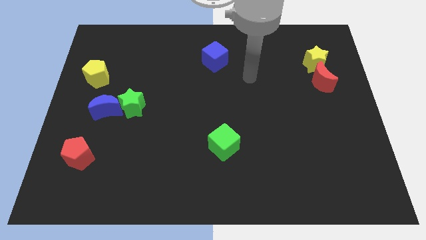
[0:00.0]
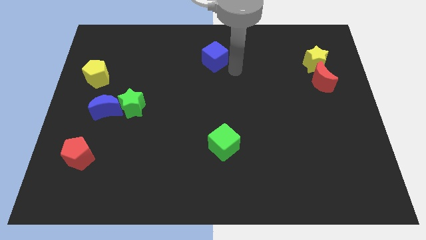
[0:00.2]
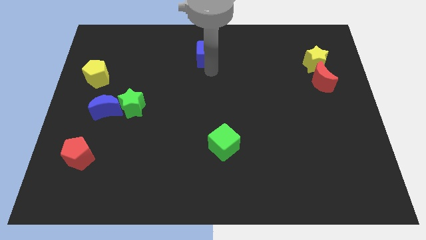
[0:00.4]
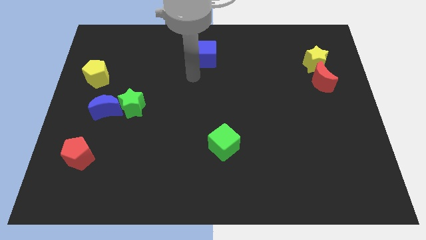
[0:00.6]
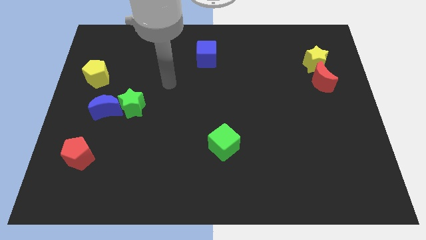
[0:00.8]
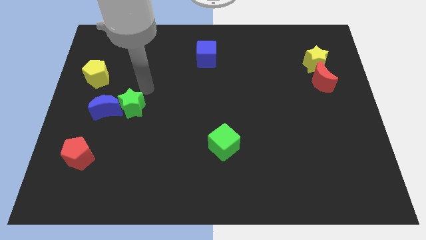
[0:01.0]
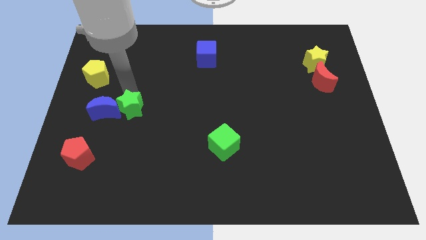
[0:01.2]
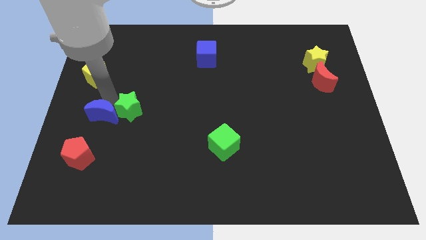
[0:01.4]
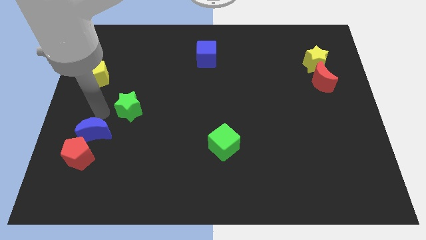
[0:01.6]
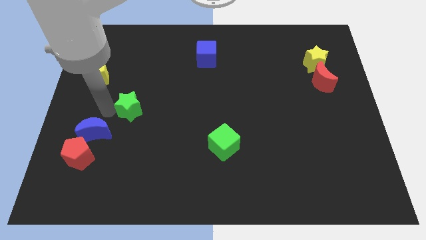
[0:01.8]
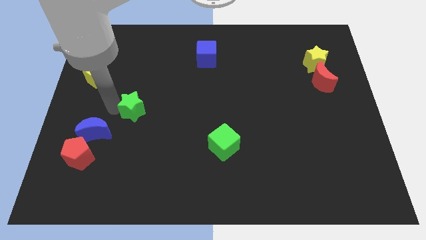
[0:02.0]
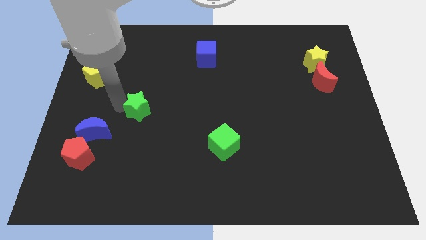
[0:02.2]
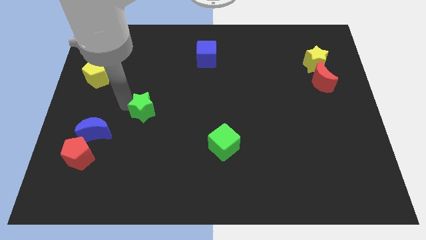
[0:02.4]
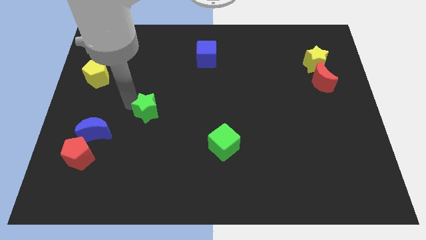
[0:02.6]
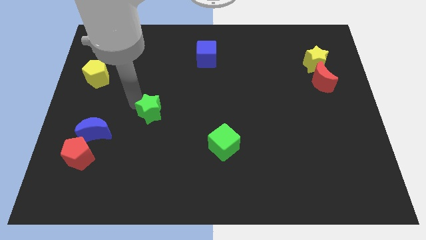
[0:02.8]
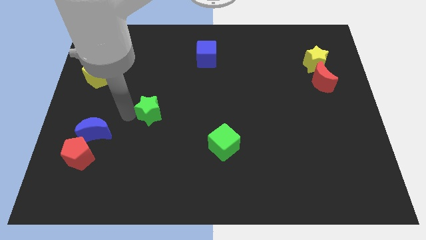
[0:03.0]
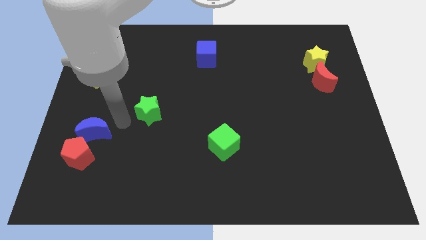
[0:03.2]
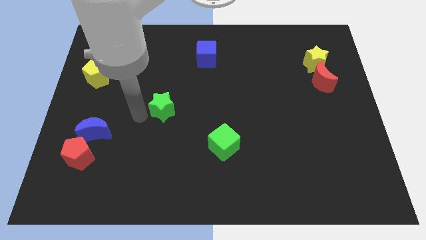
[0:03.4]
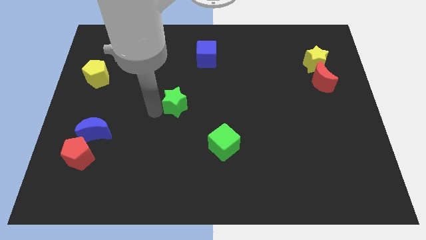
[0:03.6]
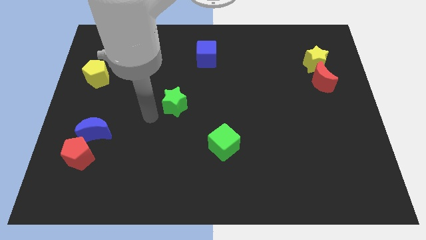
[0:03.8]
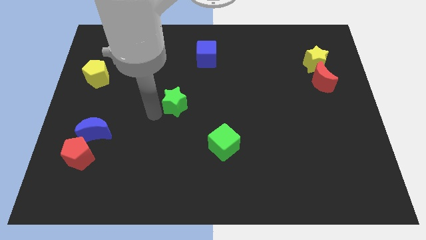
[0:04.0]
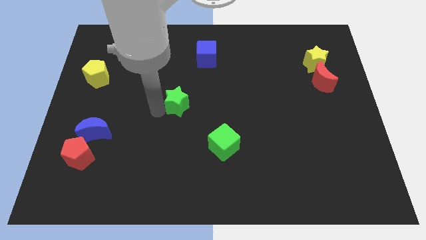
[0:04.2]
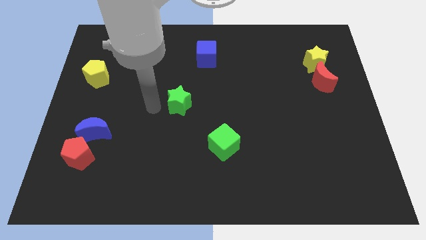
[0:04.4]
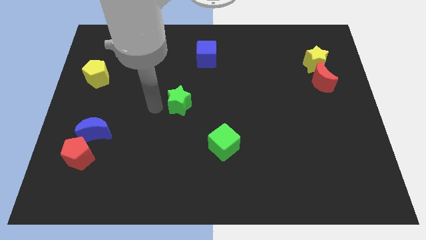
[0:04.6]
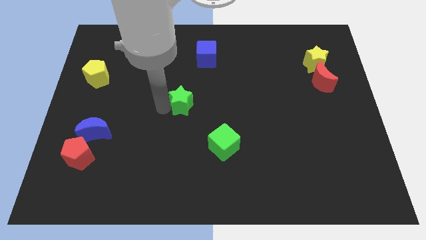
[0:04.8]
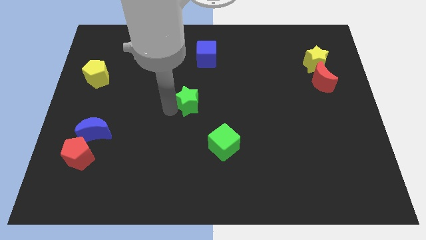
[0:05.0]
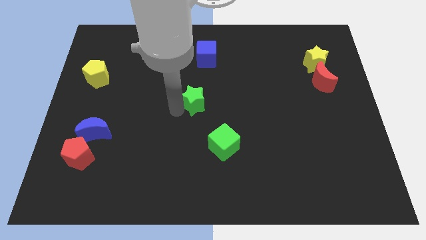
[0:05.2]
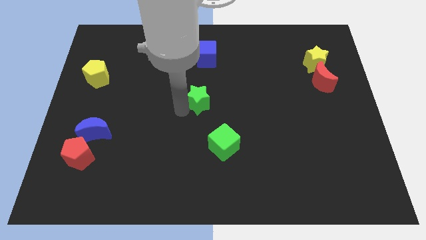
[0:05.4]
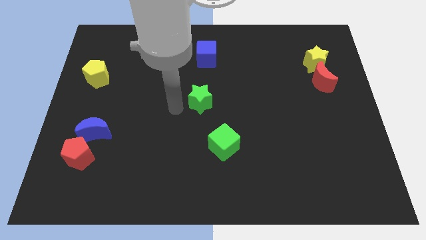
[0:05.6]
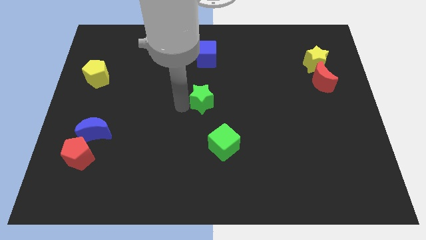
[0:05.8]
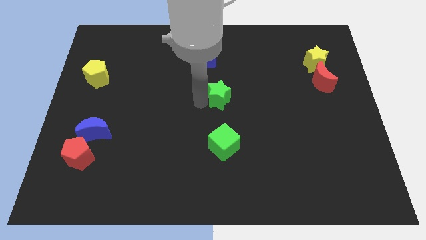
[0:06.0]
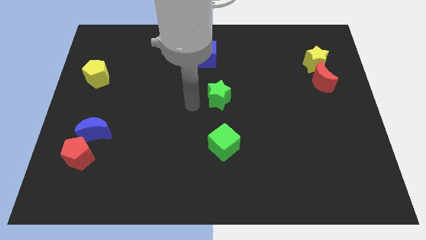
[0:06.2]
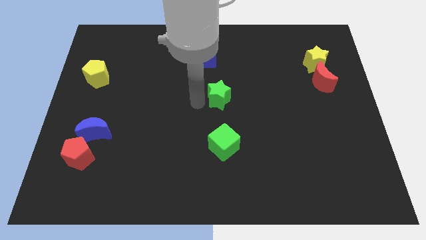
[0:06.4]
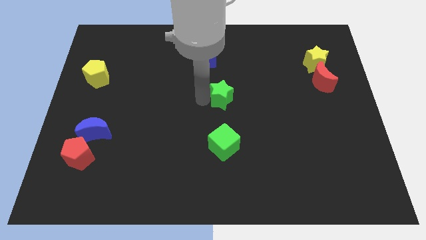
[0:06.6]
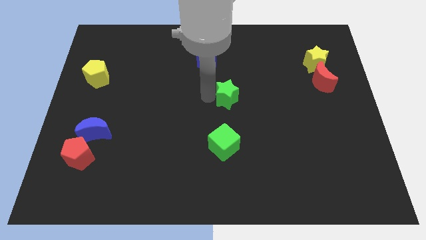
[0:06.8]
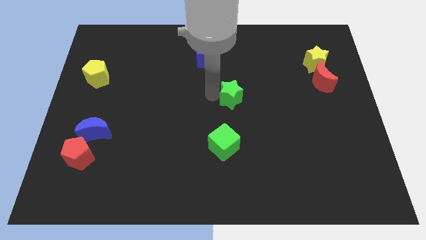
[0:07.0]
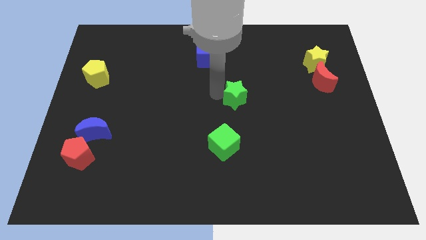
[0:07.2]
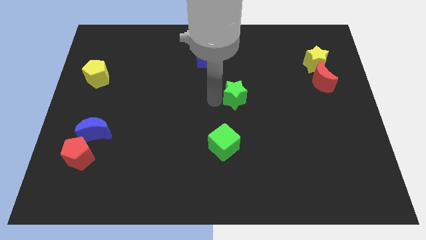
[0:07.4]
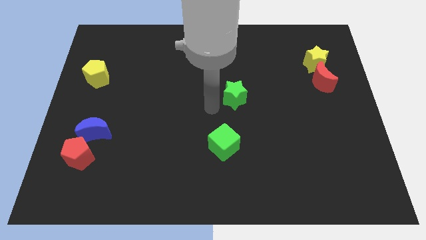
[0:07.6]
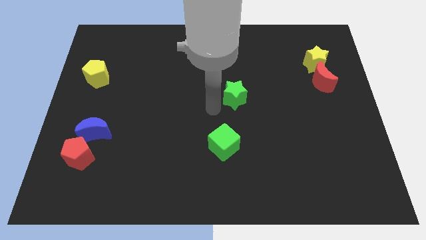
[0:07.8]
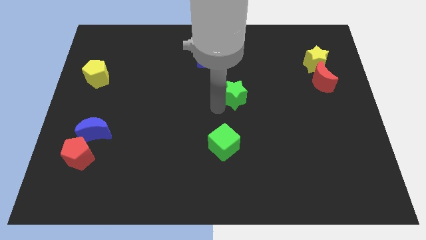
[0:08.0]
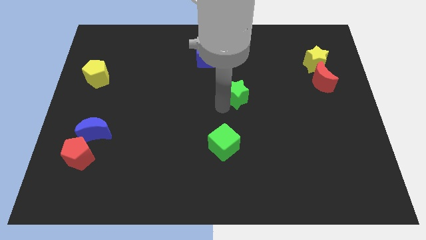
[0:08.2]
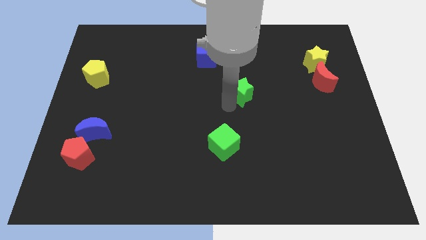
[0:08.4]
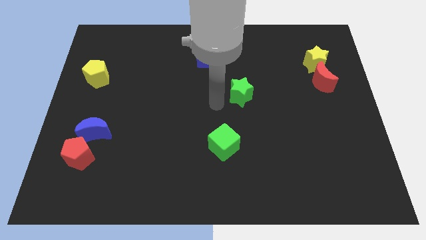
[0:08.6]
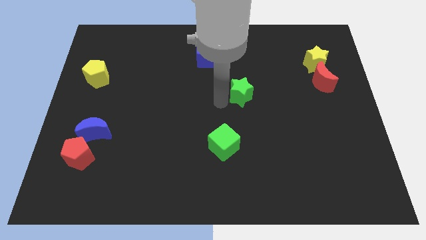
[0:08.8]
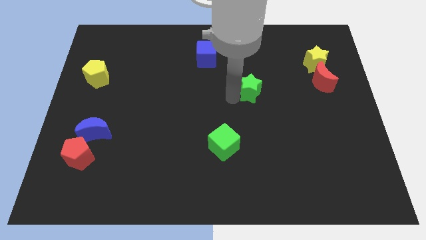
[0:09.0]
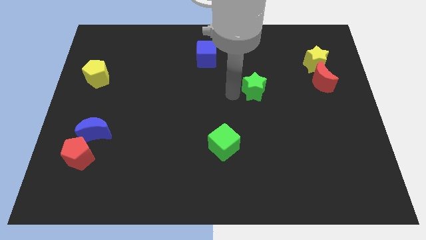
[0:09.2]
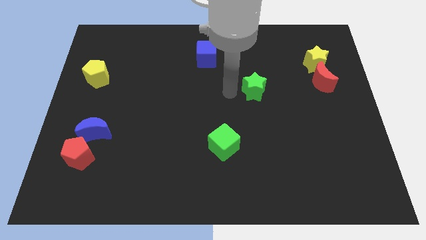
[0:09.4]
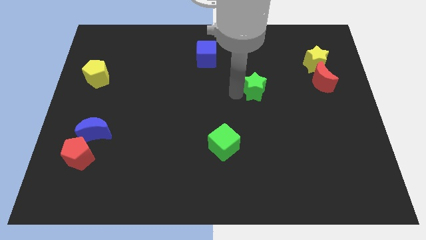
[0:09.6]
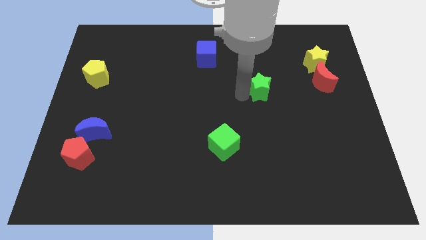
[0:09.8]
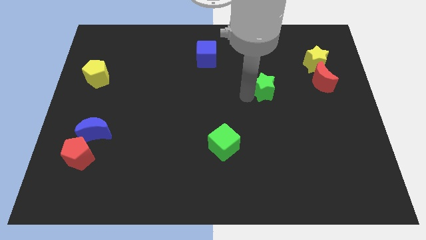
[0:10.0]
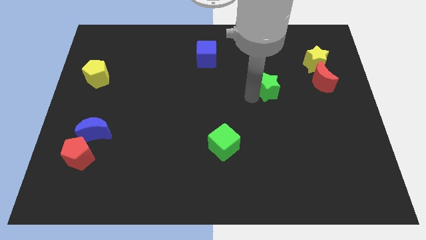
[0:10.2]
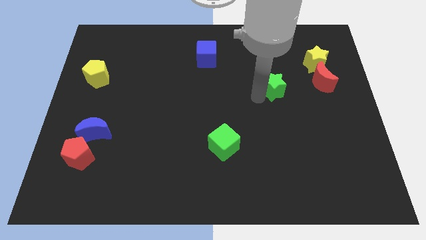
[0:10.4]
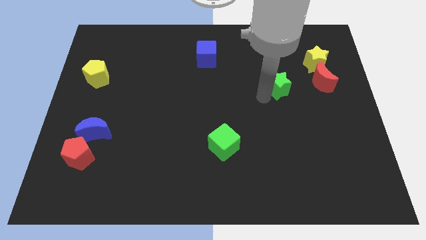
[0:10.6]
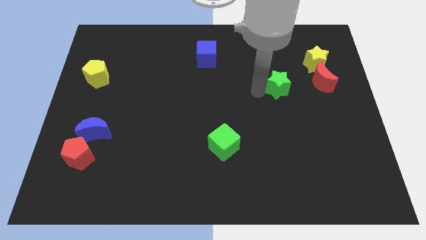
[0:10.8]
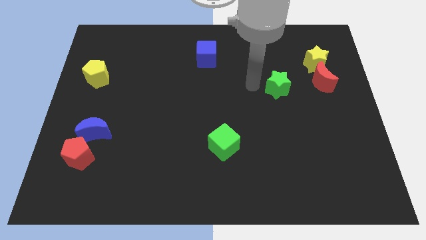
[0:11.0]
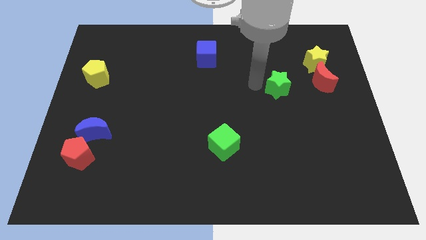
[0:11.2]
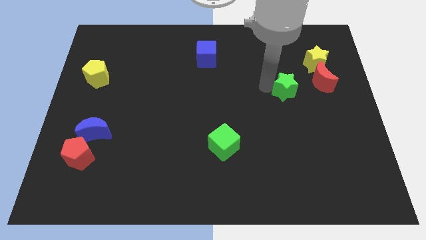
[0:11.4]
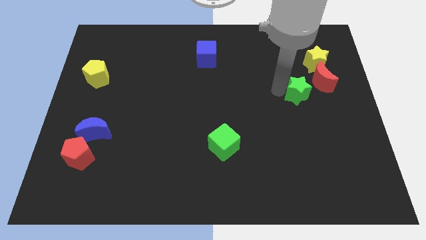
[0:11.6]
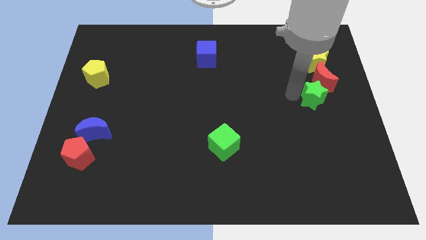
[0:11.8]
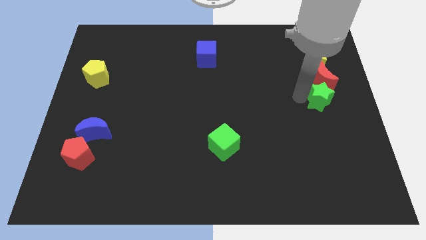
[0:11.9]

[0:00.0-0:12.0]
push the green star to the right side

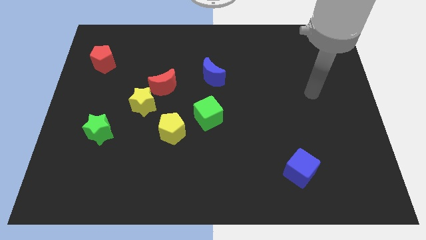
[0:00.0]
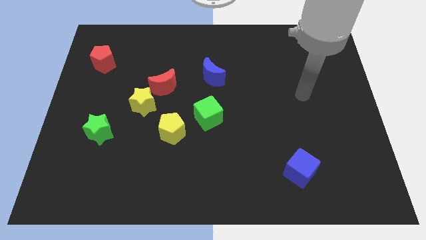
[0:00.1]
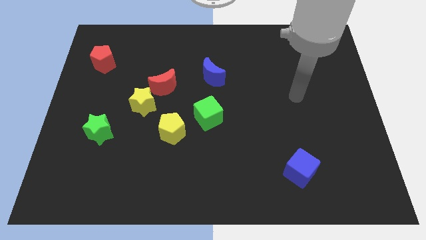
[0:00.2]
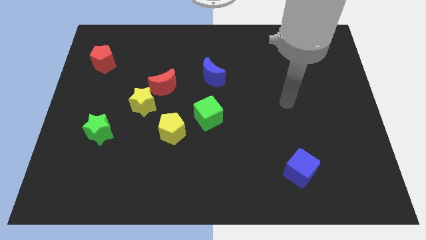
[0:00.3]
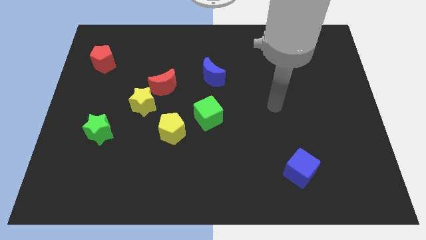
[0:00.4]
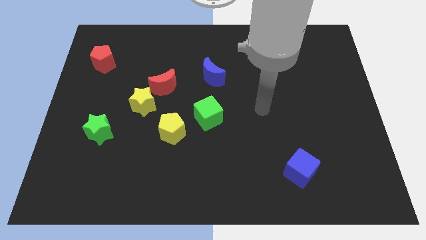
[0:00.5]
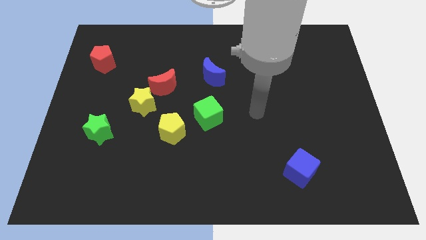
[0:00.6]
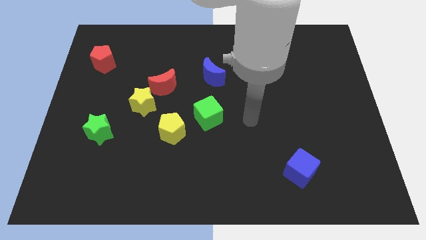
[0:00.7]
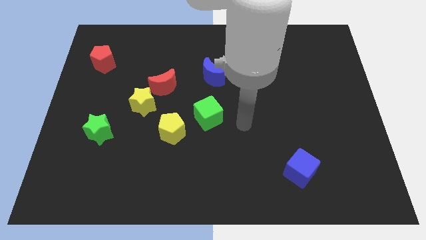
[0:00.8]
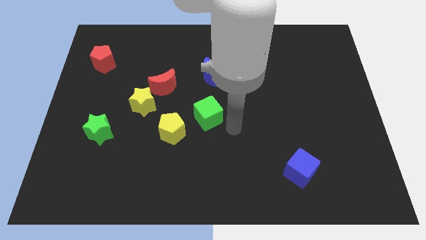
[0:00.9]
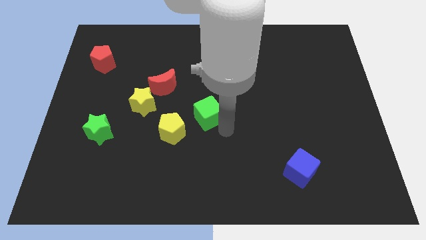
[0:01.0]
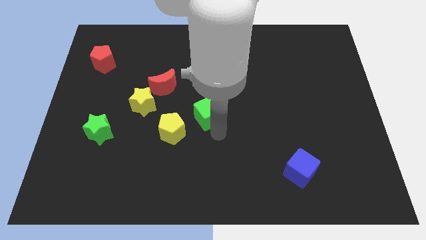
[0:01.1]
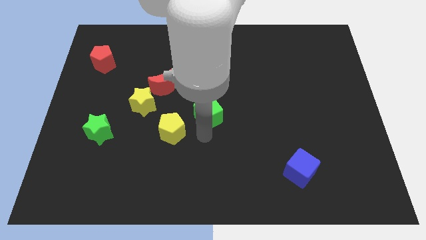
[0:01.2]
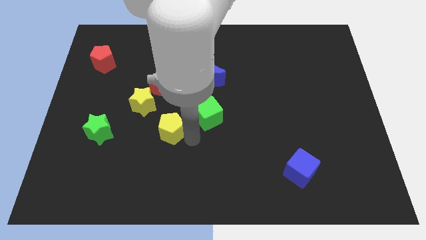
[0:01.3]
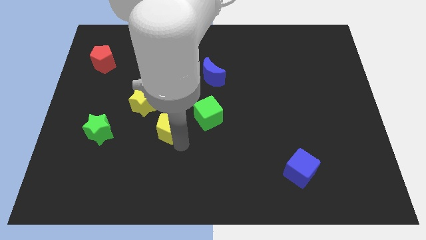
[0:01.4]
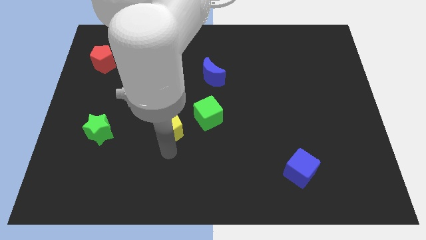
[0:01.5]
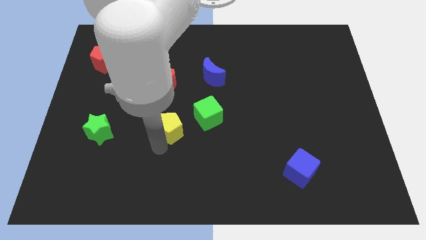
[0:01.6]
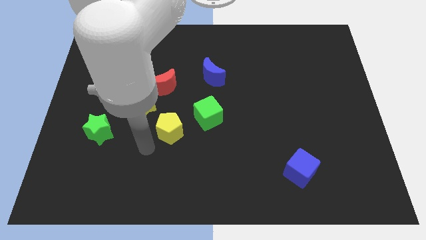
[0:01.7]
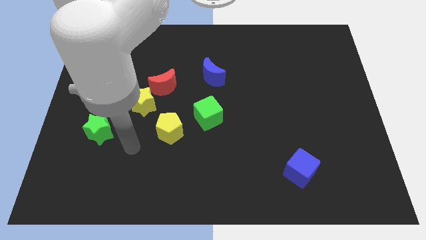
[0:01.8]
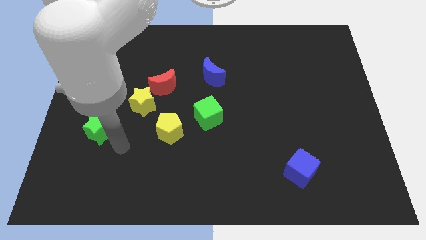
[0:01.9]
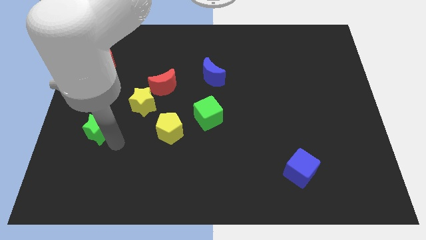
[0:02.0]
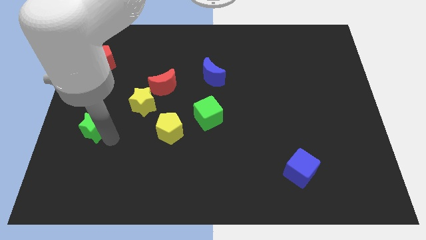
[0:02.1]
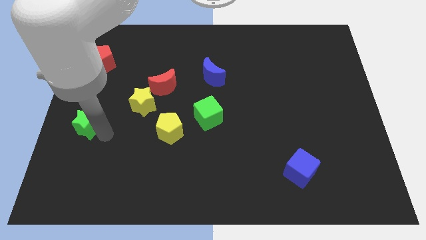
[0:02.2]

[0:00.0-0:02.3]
slide the green star to the center left
